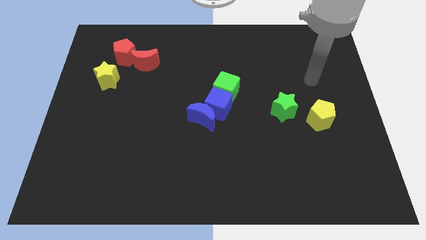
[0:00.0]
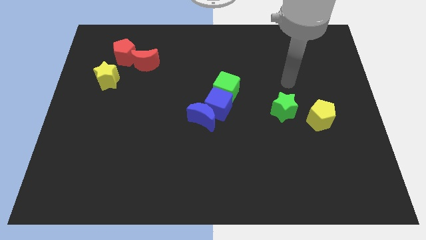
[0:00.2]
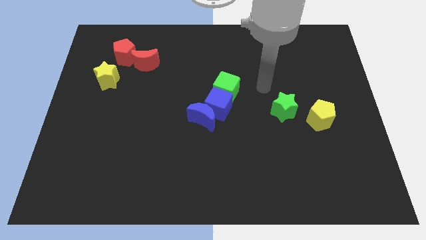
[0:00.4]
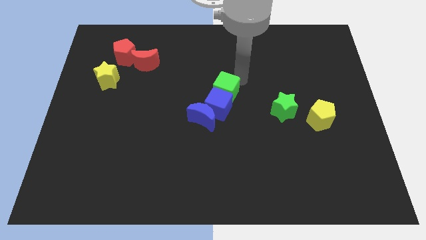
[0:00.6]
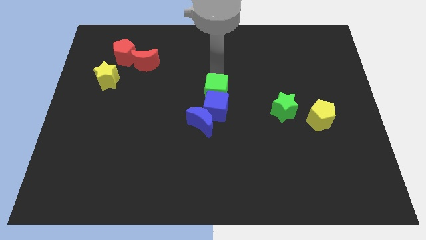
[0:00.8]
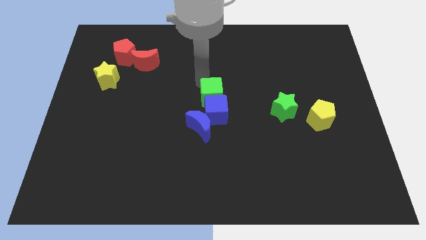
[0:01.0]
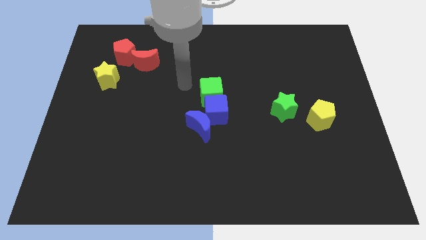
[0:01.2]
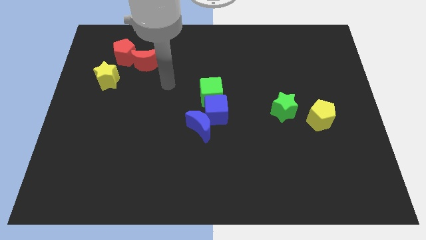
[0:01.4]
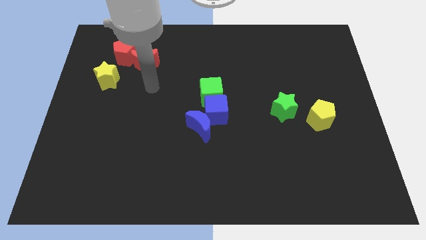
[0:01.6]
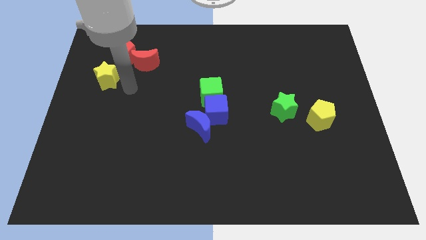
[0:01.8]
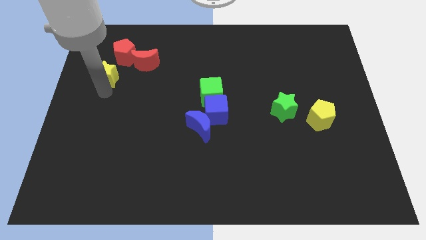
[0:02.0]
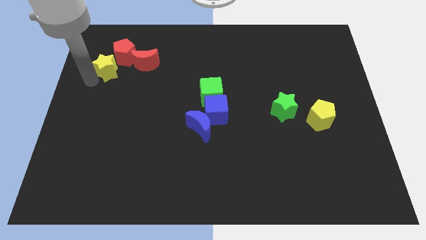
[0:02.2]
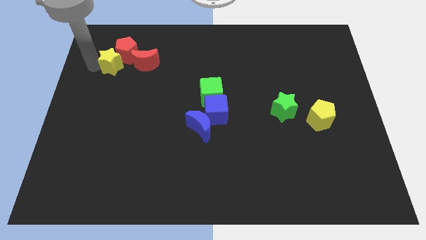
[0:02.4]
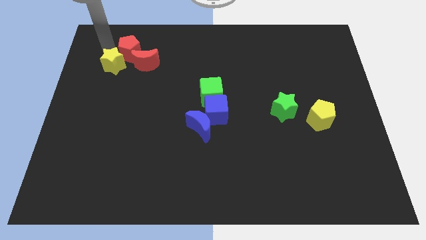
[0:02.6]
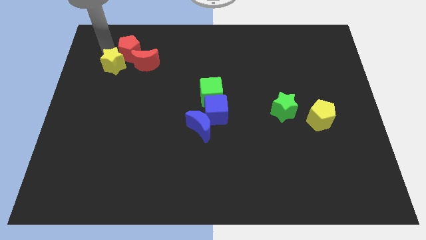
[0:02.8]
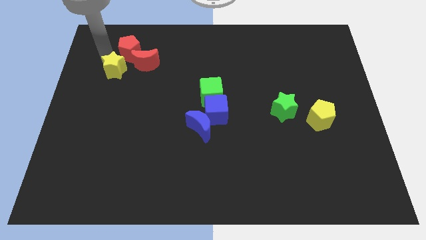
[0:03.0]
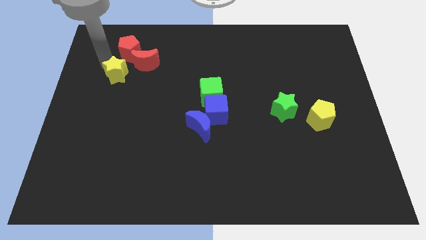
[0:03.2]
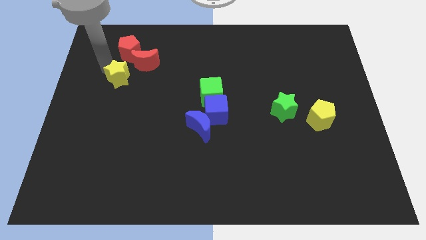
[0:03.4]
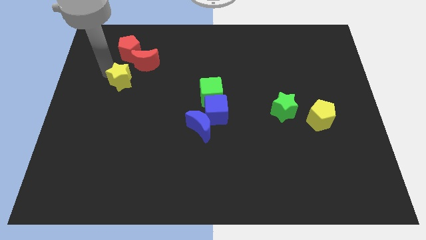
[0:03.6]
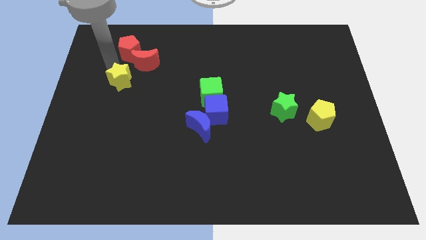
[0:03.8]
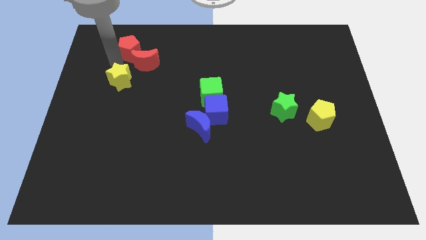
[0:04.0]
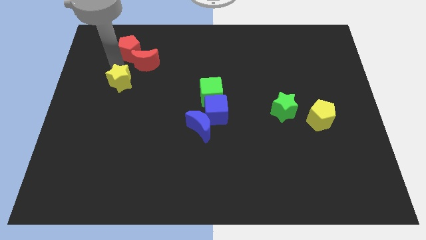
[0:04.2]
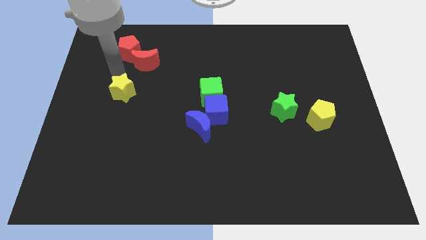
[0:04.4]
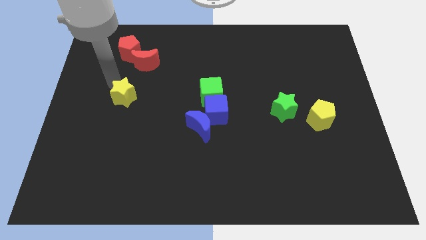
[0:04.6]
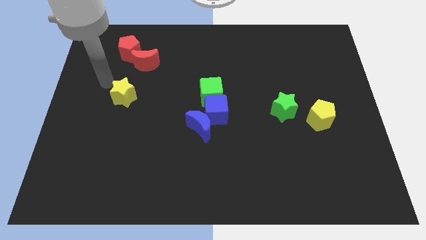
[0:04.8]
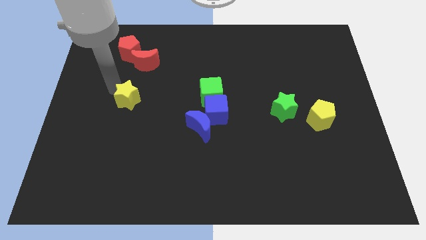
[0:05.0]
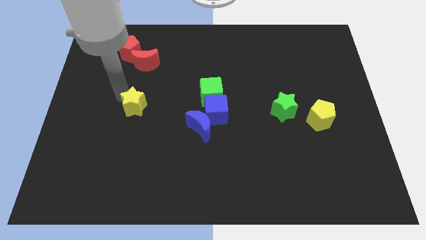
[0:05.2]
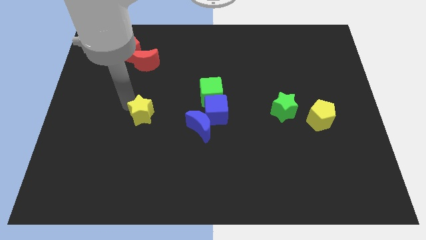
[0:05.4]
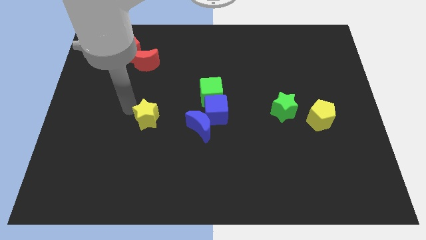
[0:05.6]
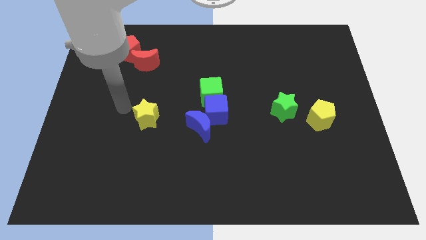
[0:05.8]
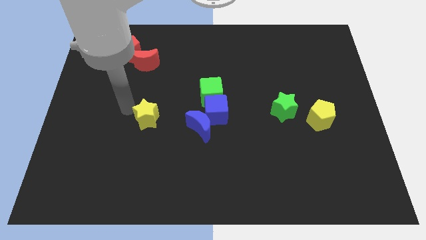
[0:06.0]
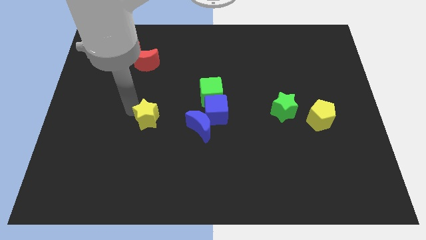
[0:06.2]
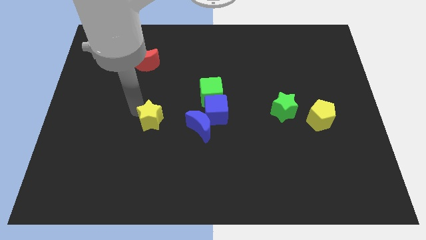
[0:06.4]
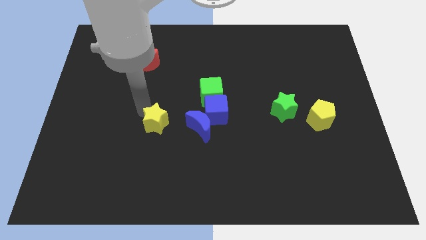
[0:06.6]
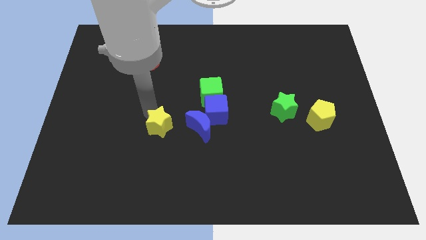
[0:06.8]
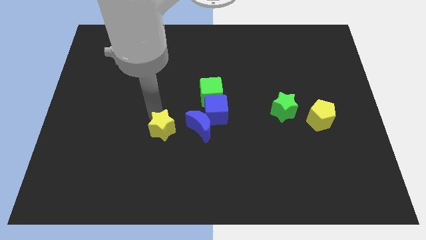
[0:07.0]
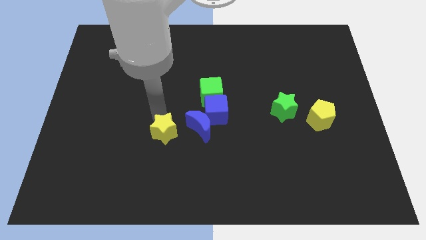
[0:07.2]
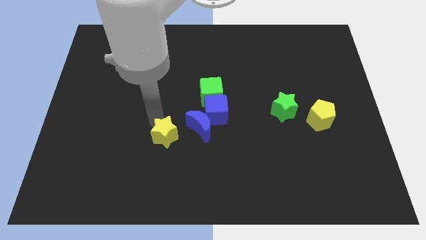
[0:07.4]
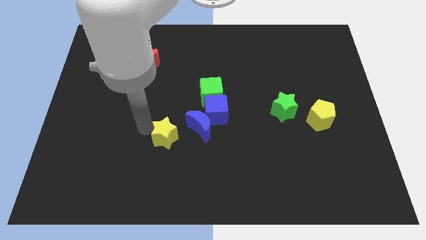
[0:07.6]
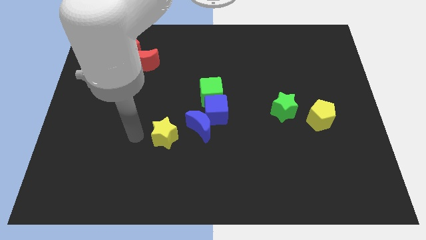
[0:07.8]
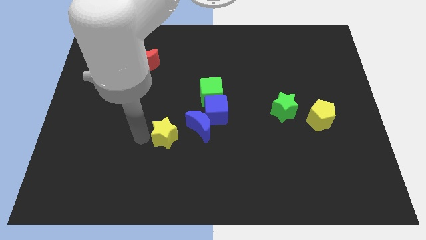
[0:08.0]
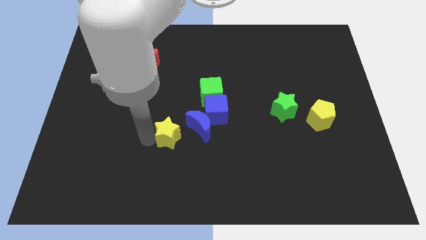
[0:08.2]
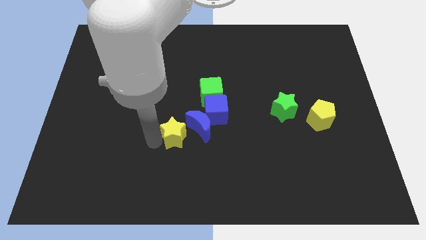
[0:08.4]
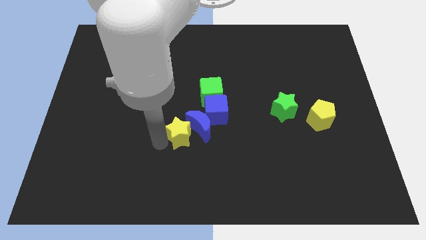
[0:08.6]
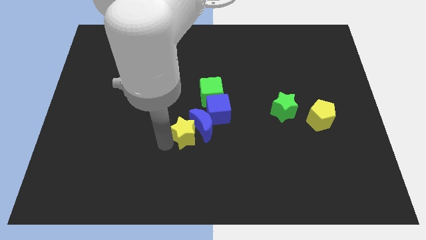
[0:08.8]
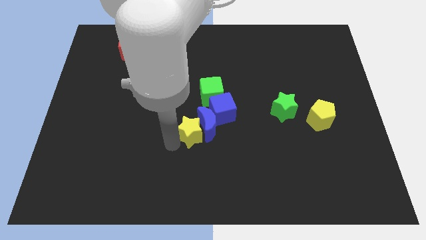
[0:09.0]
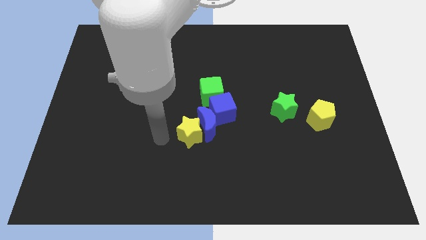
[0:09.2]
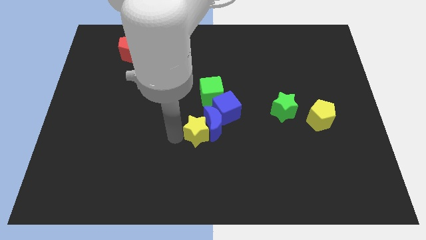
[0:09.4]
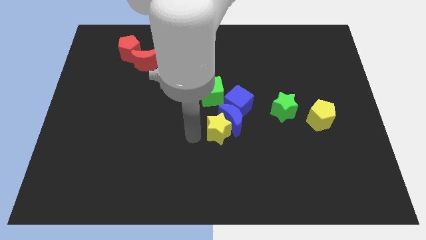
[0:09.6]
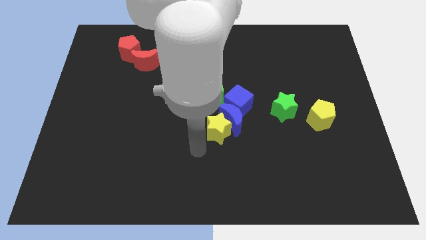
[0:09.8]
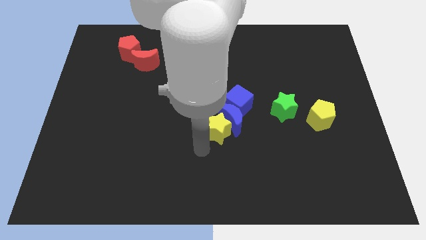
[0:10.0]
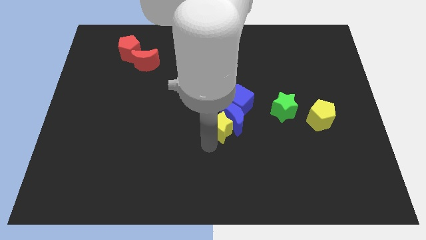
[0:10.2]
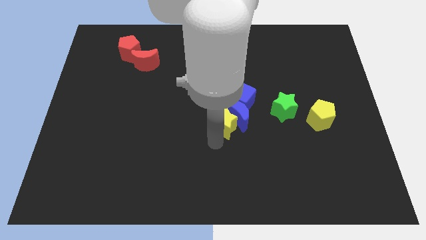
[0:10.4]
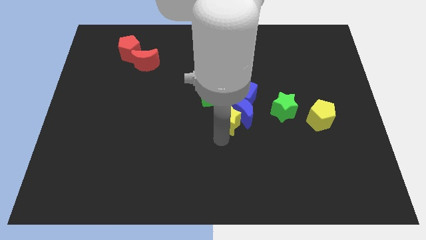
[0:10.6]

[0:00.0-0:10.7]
push the yellow star just left of the green star

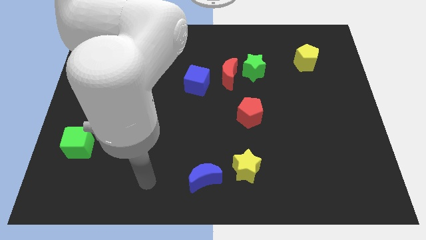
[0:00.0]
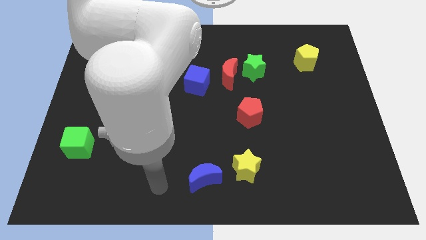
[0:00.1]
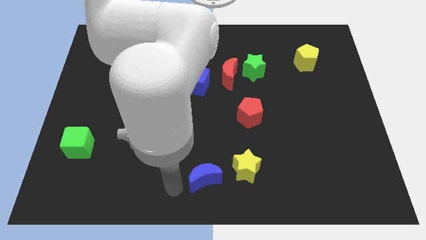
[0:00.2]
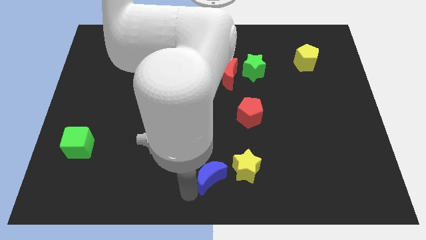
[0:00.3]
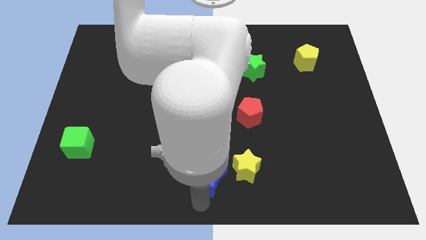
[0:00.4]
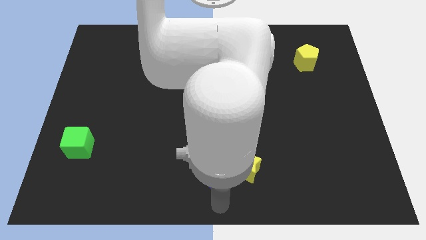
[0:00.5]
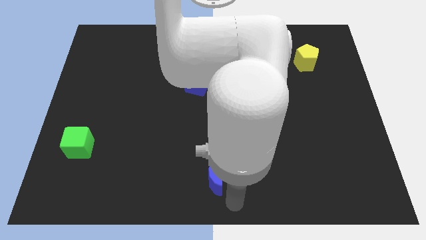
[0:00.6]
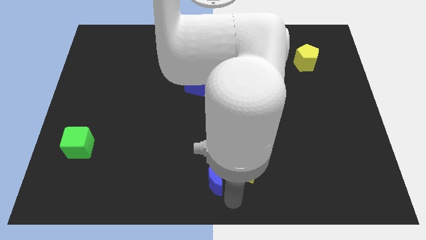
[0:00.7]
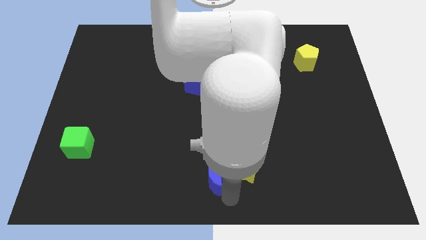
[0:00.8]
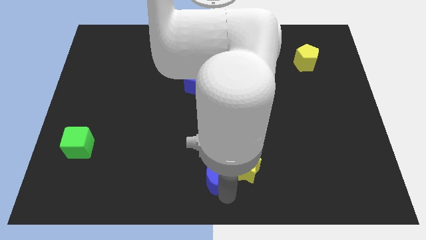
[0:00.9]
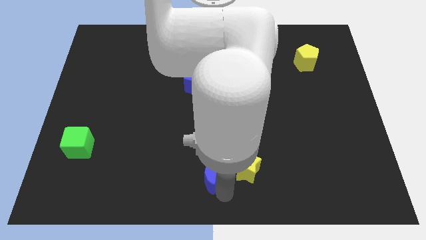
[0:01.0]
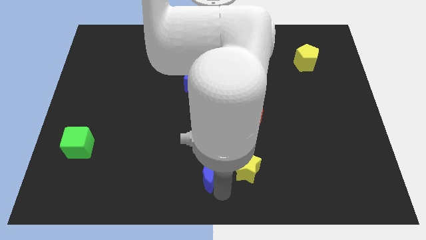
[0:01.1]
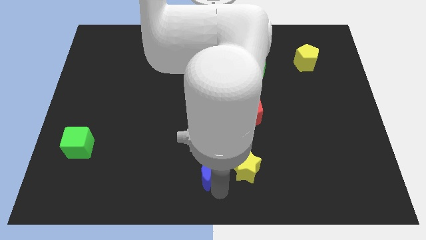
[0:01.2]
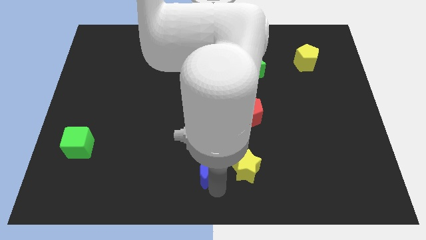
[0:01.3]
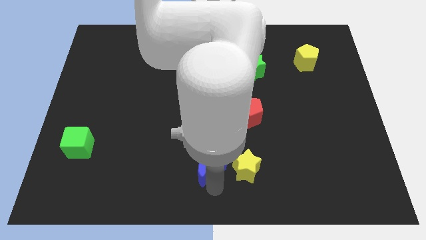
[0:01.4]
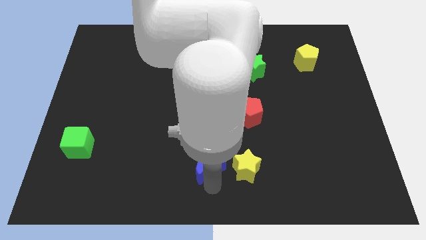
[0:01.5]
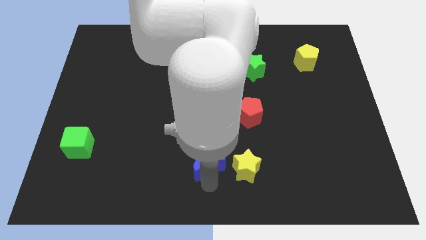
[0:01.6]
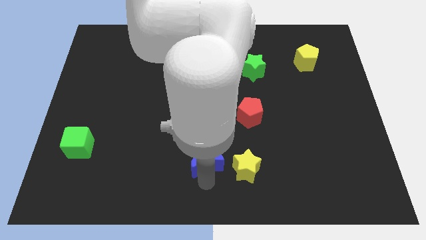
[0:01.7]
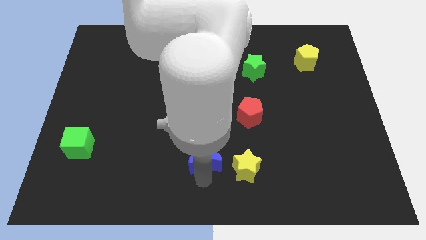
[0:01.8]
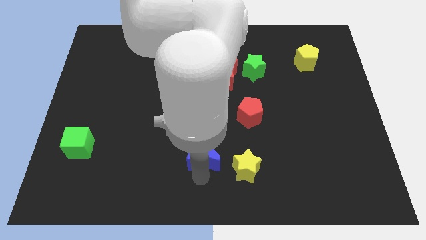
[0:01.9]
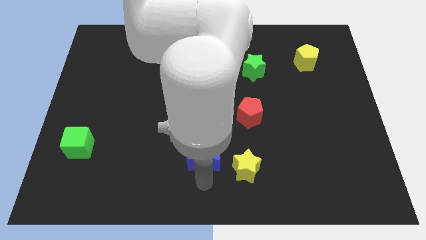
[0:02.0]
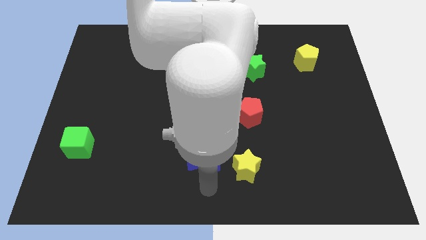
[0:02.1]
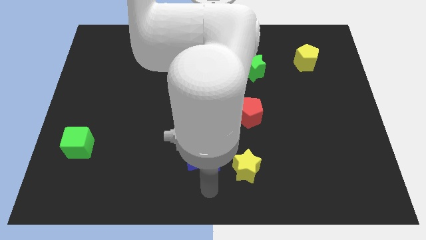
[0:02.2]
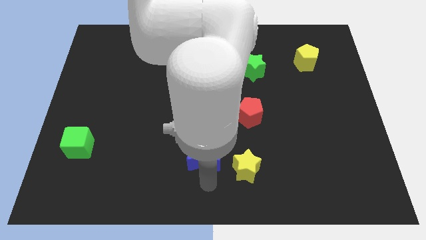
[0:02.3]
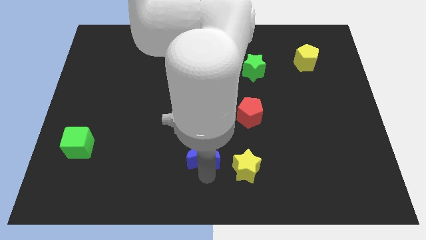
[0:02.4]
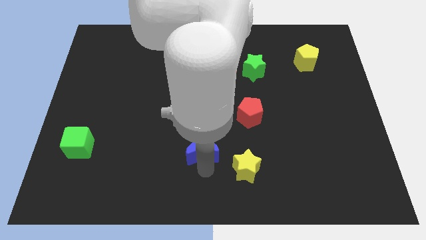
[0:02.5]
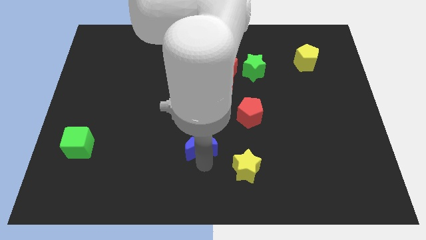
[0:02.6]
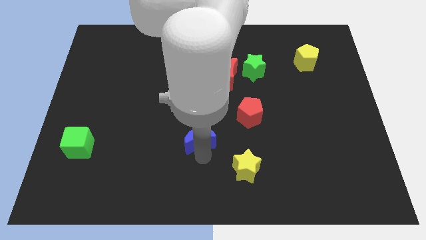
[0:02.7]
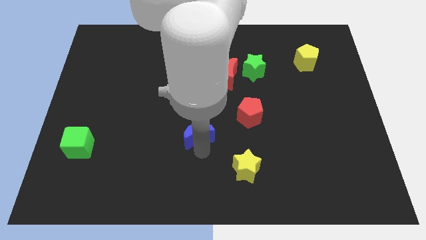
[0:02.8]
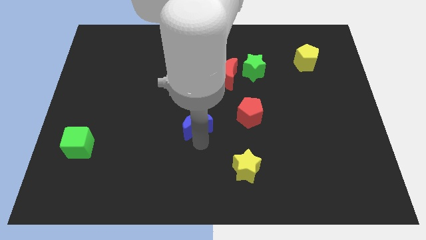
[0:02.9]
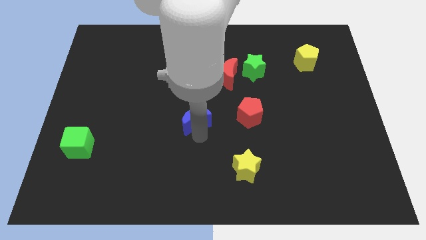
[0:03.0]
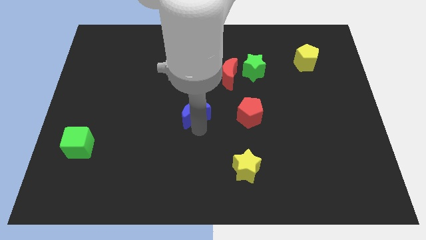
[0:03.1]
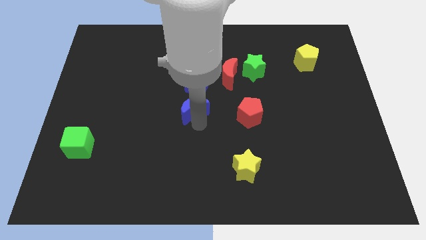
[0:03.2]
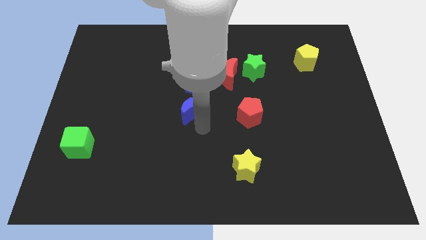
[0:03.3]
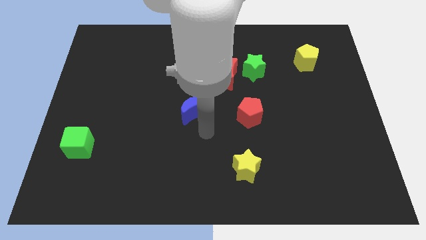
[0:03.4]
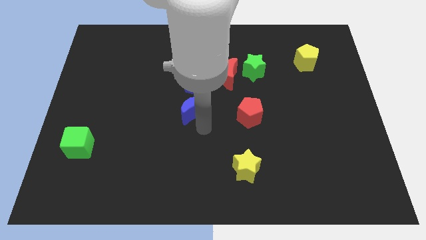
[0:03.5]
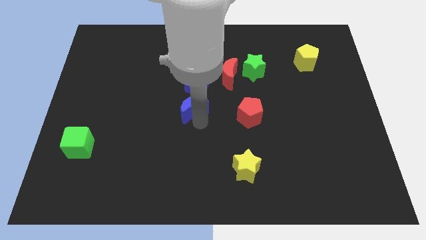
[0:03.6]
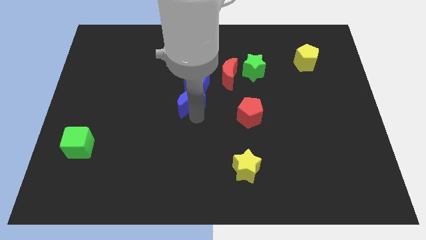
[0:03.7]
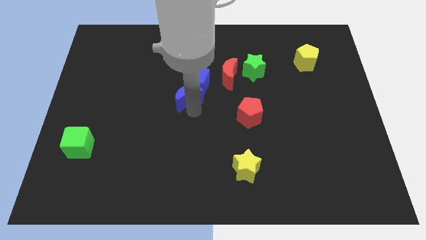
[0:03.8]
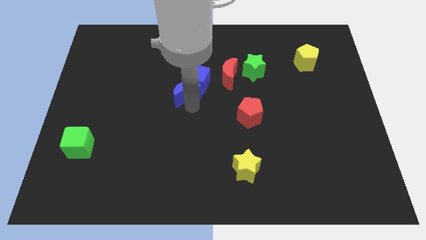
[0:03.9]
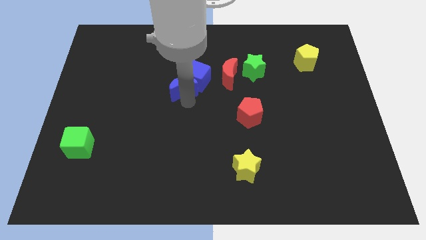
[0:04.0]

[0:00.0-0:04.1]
slide the blue moon left of the red moon
